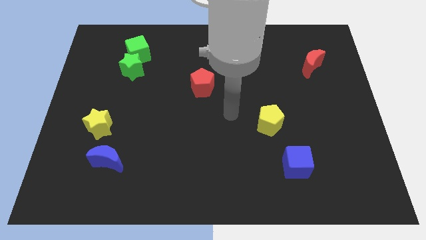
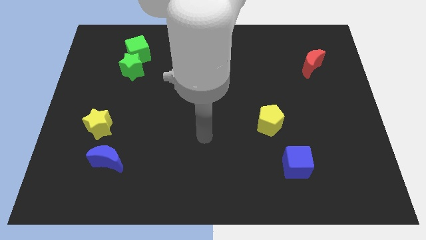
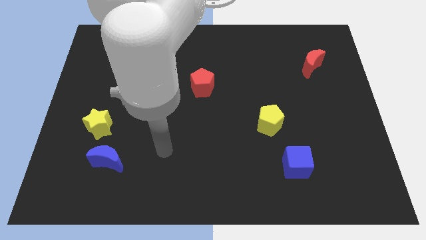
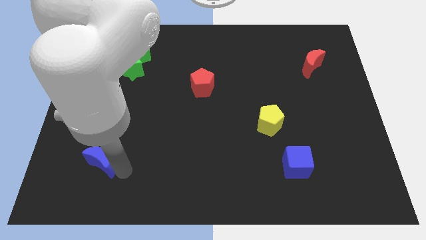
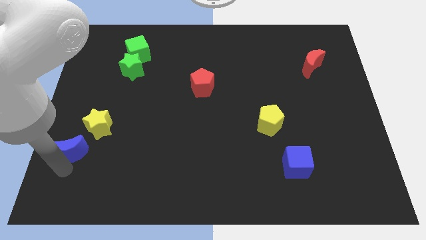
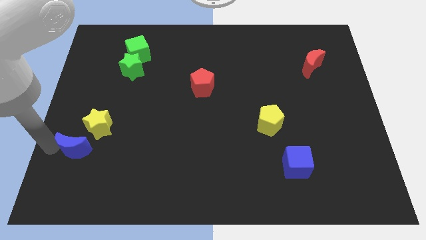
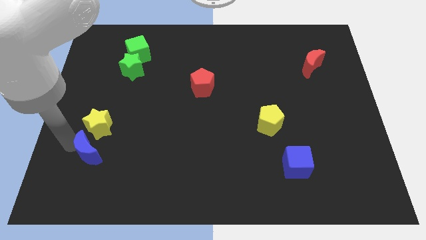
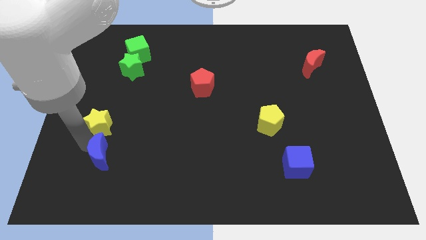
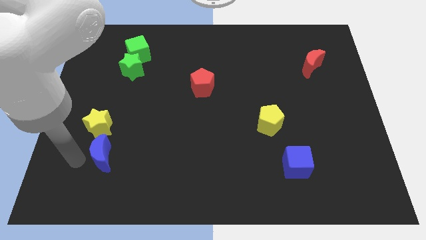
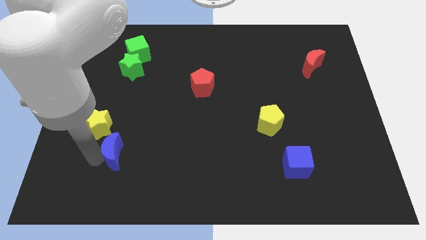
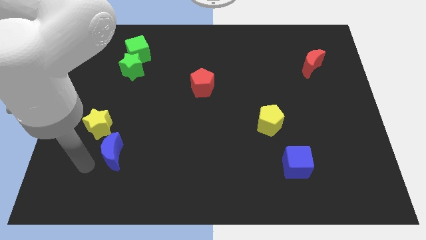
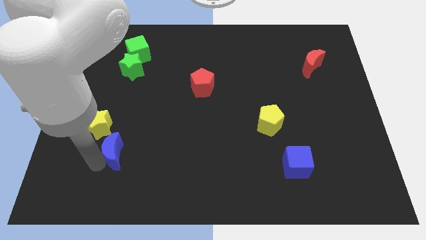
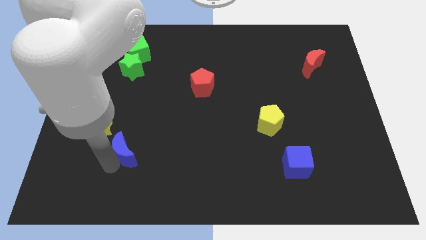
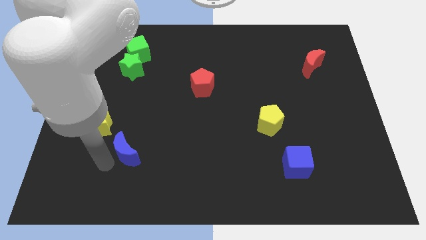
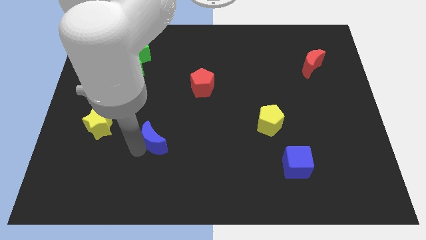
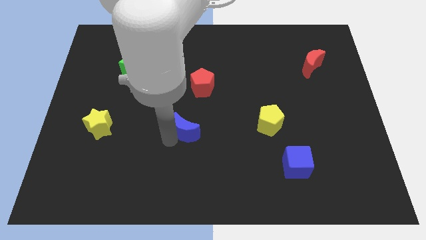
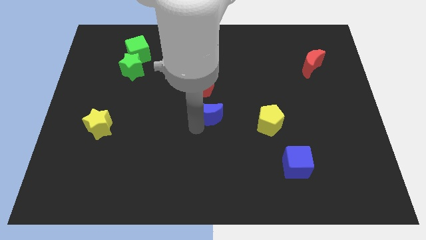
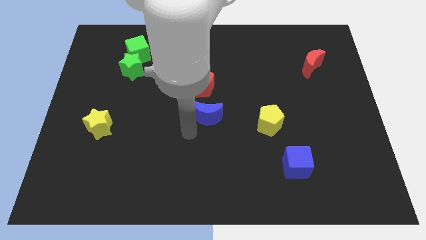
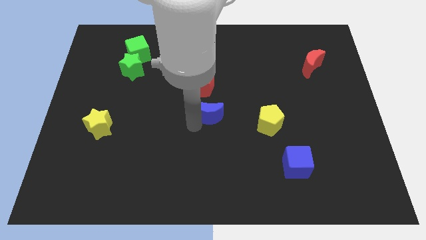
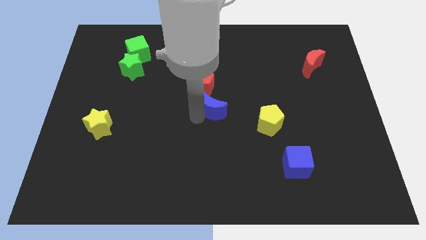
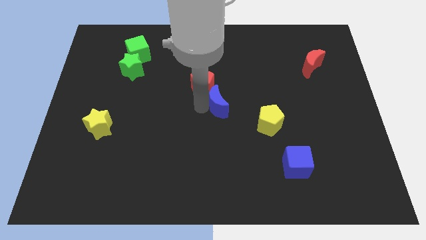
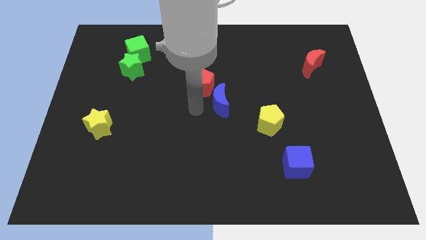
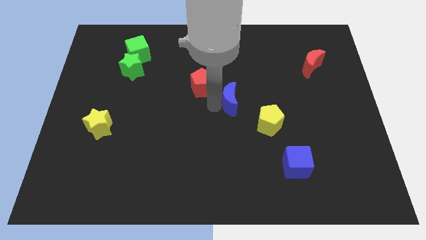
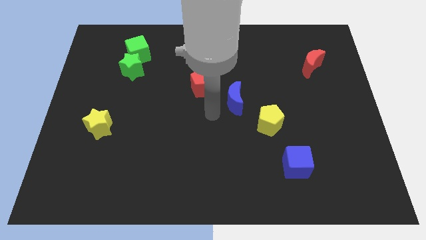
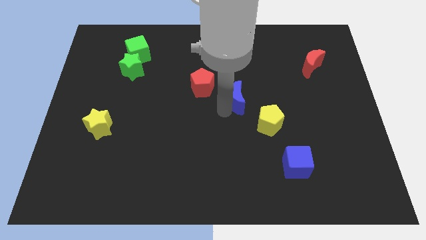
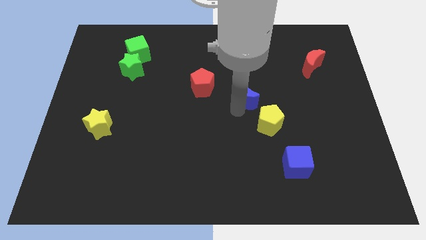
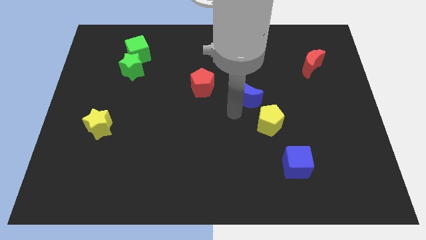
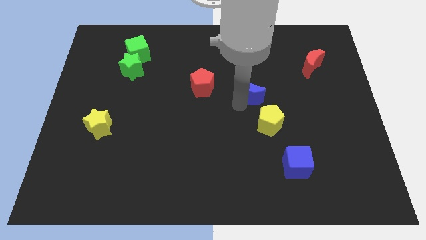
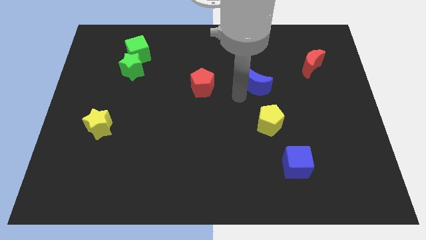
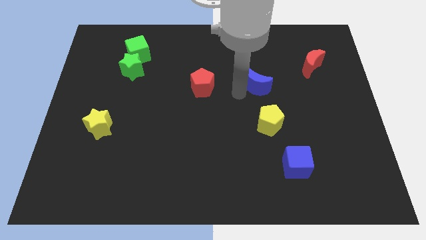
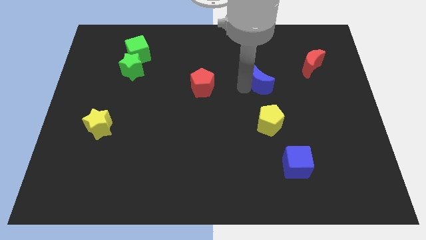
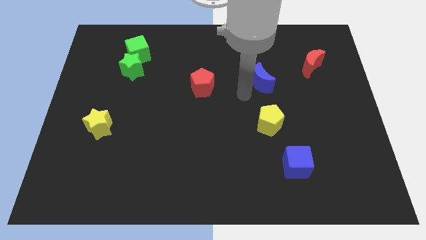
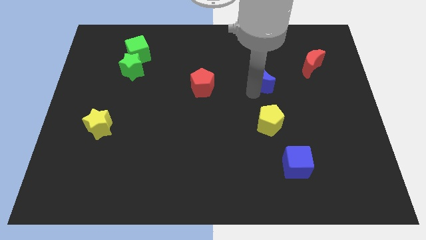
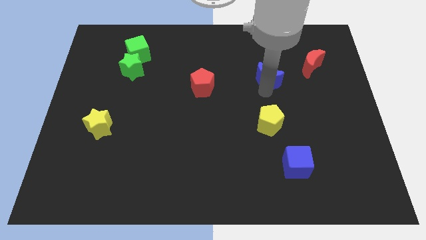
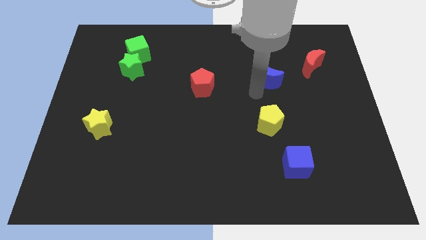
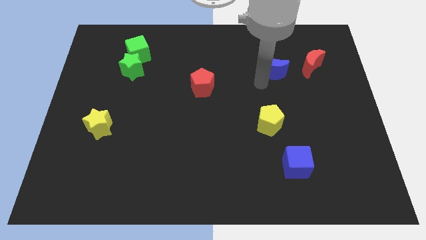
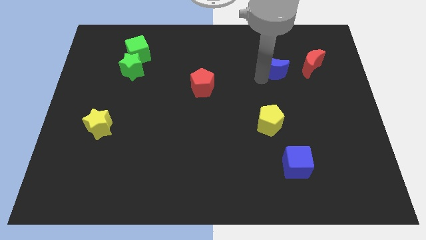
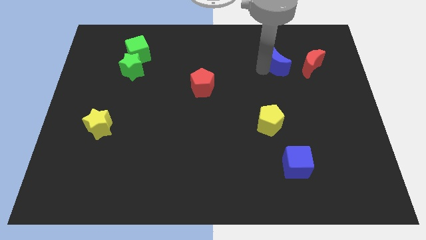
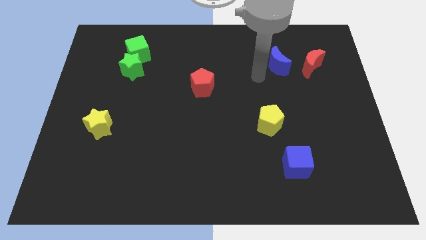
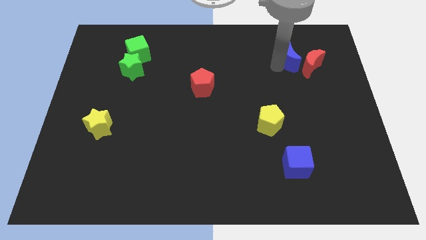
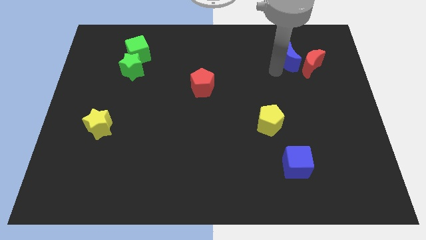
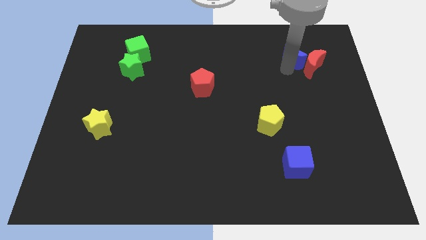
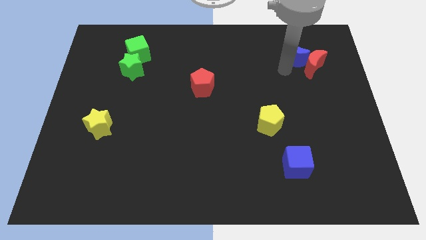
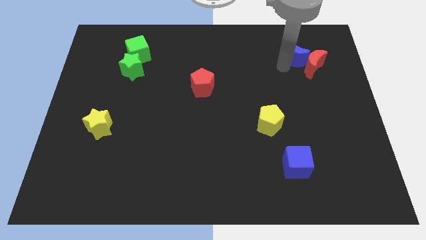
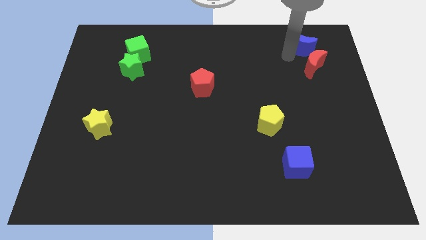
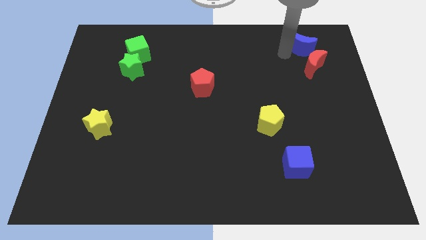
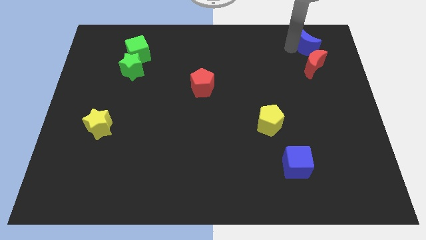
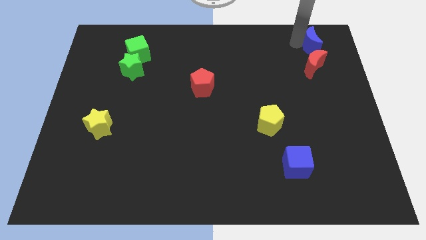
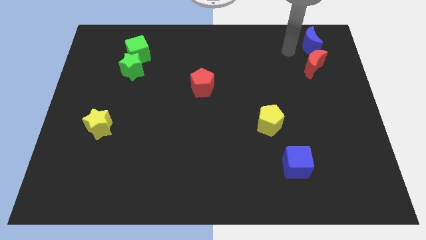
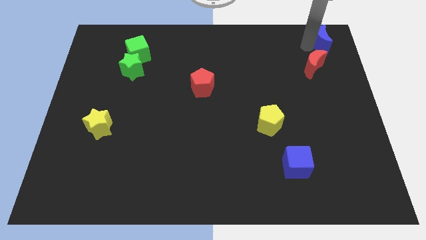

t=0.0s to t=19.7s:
push the blue moon to the top right

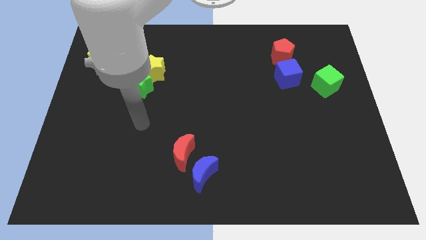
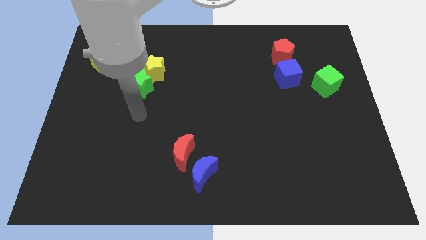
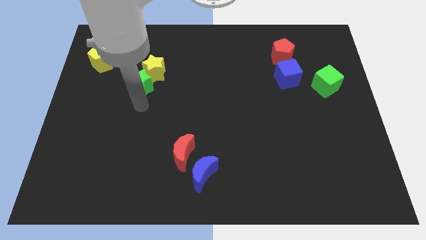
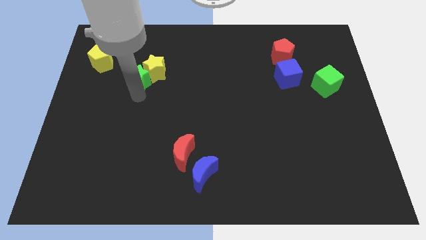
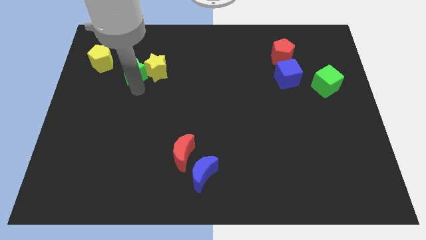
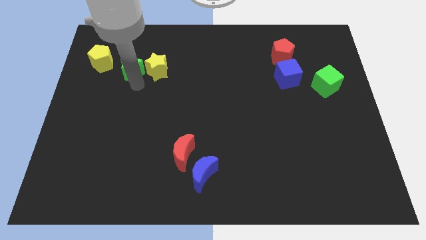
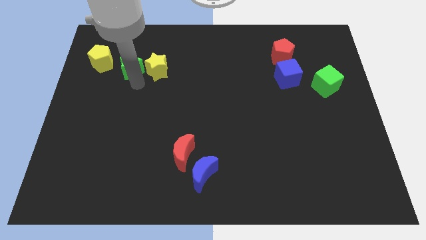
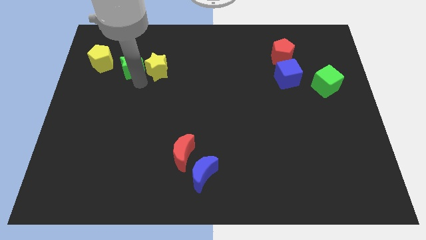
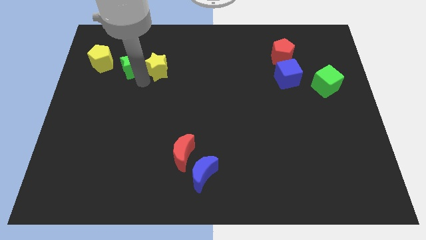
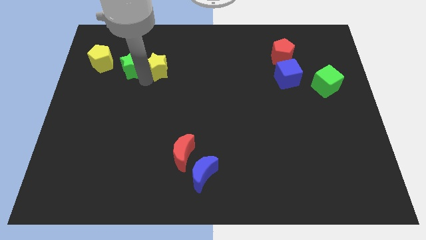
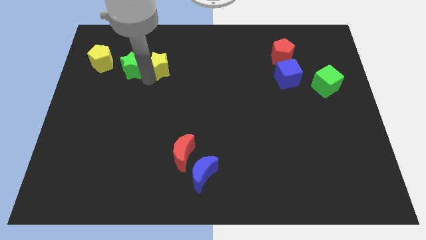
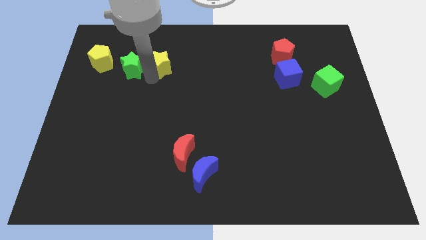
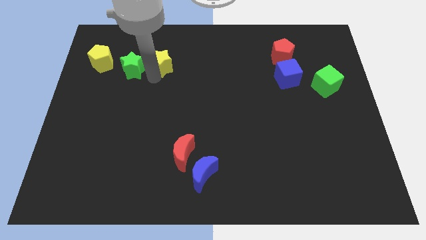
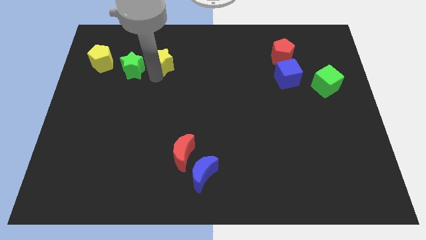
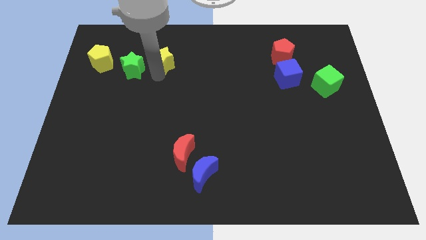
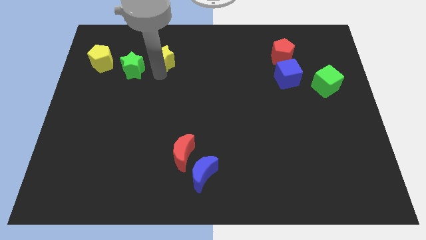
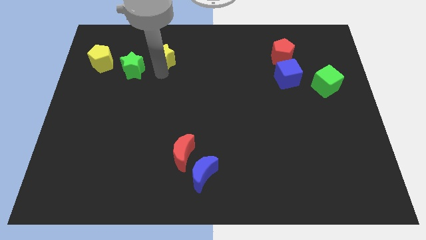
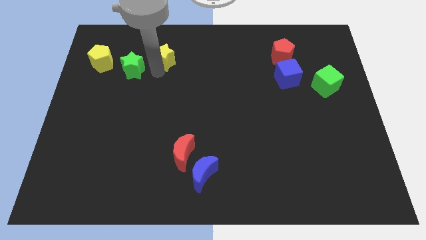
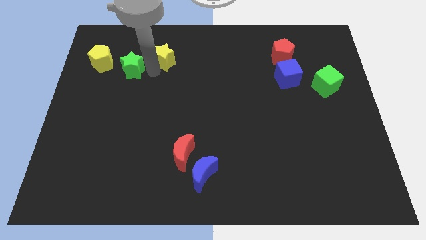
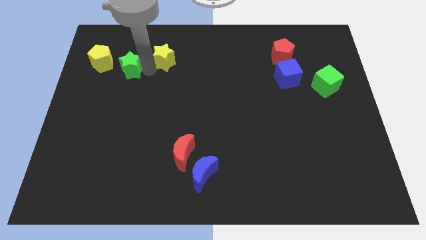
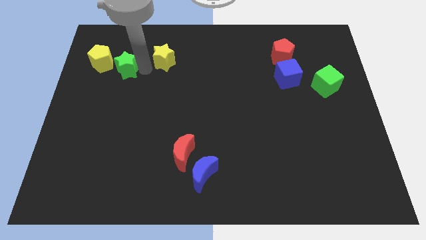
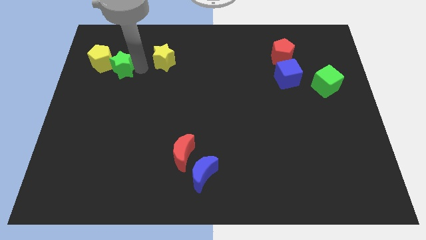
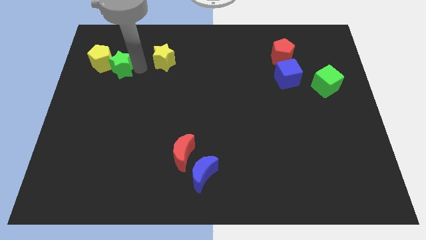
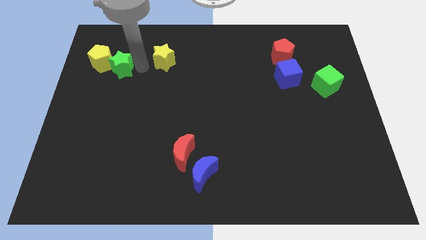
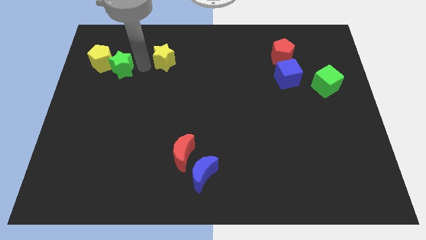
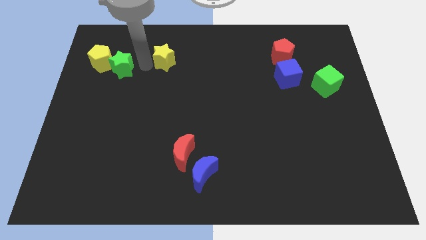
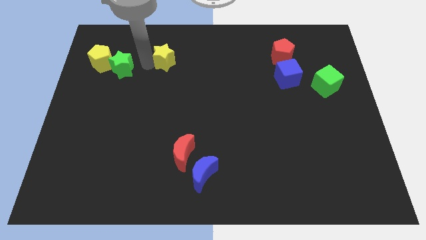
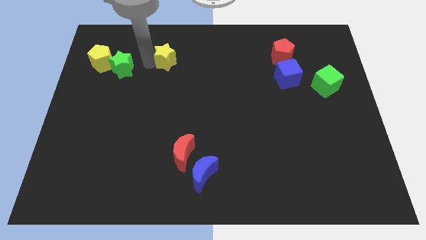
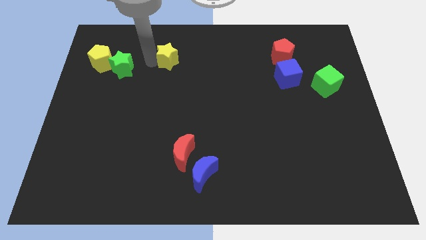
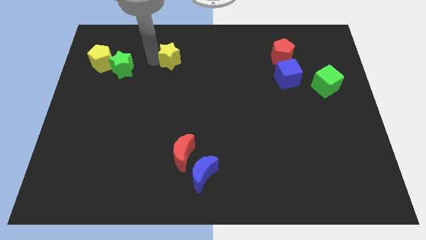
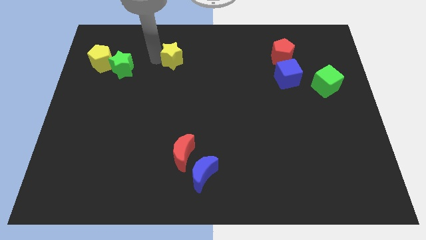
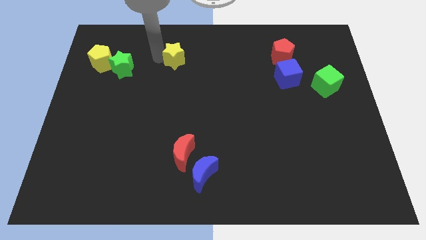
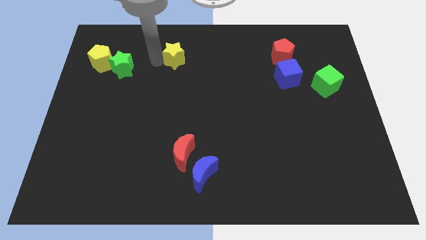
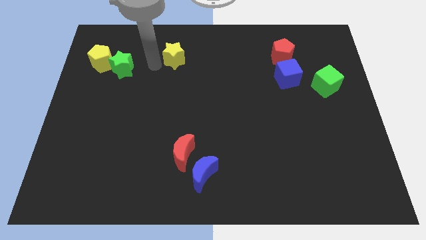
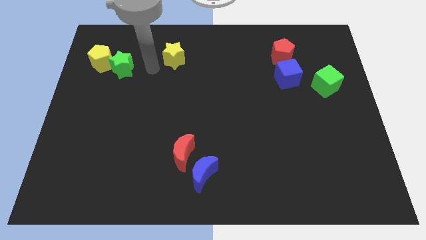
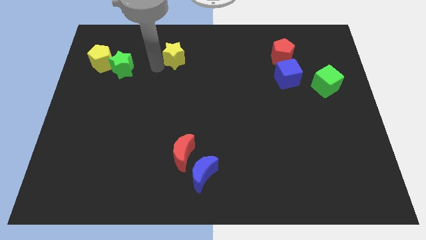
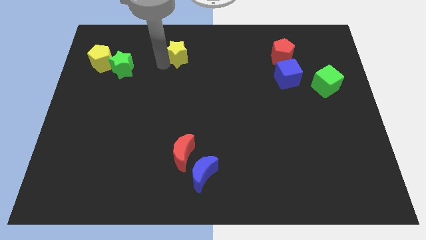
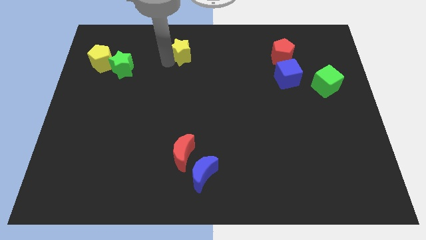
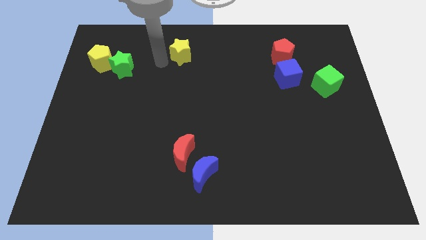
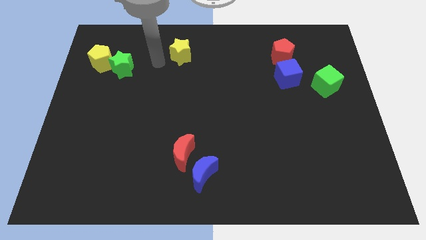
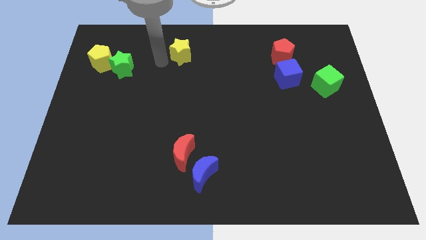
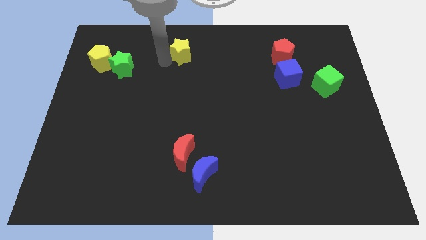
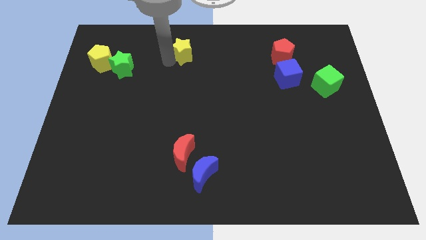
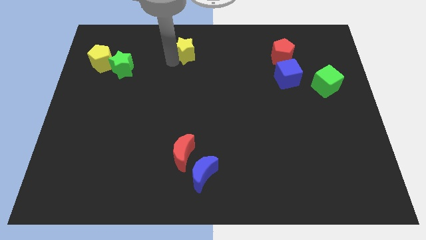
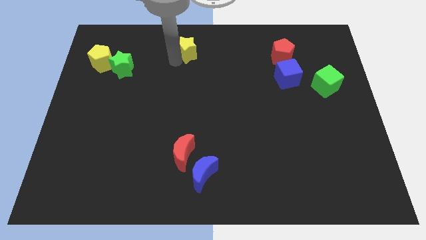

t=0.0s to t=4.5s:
put the yellow star to the top side
